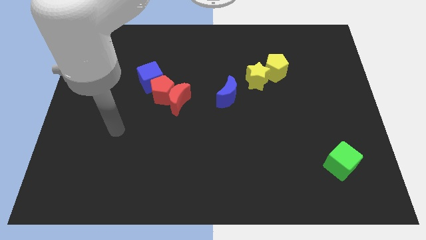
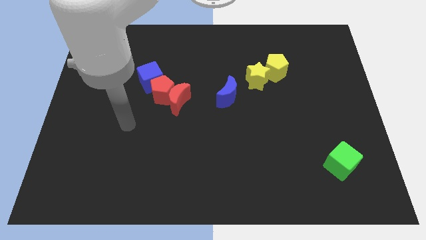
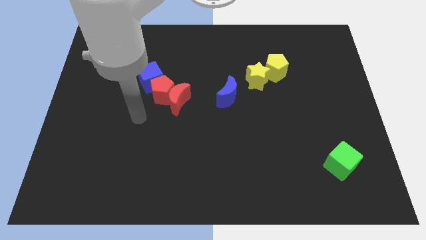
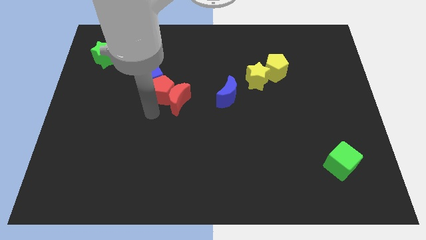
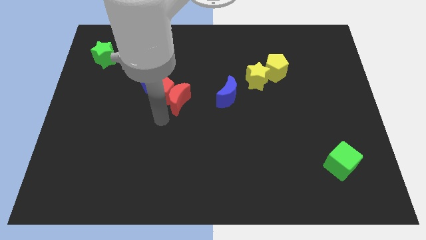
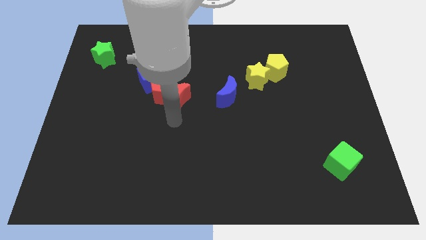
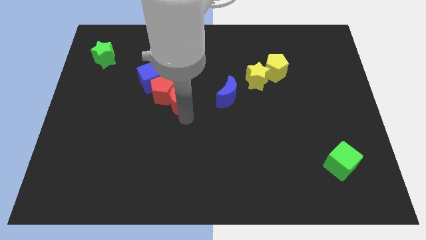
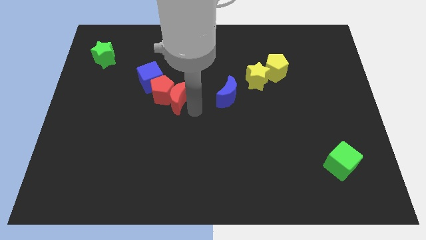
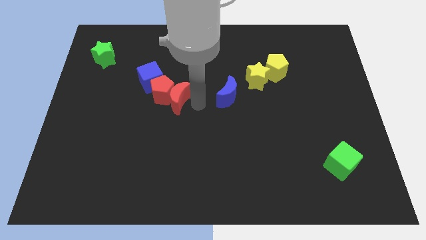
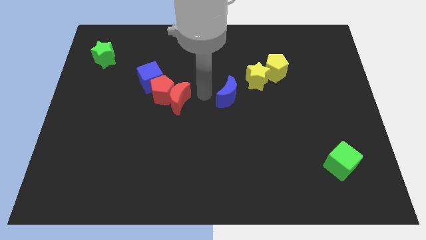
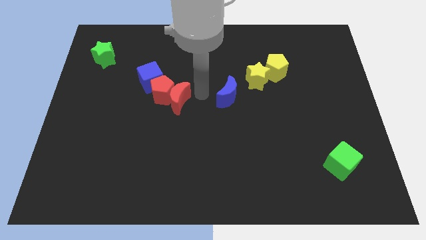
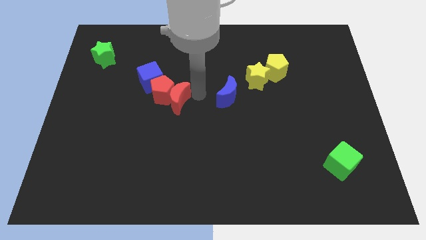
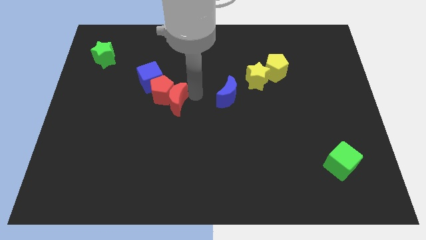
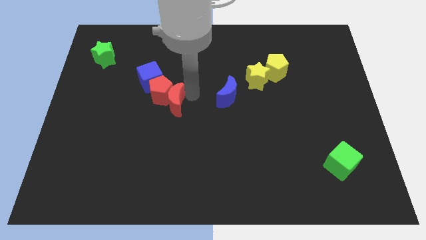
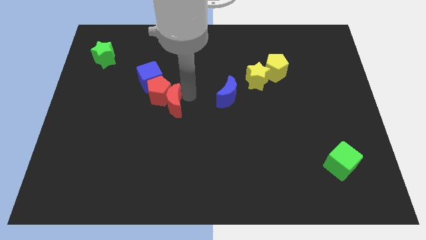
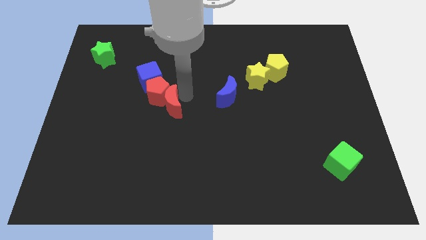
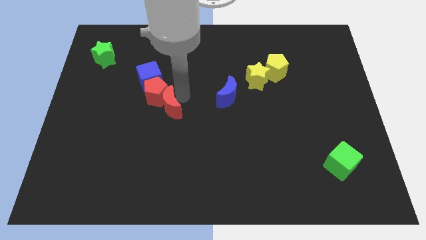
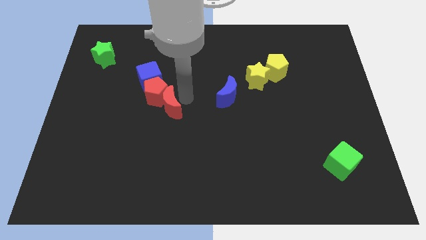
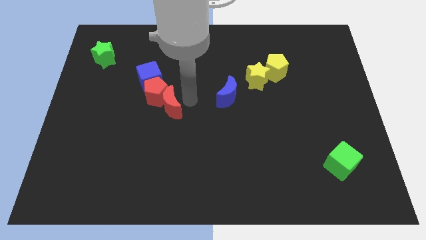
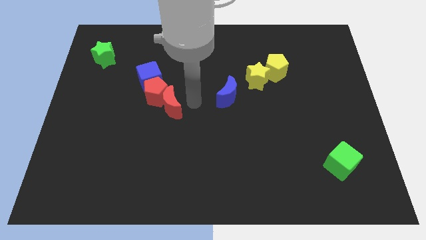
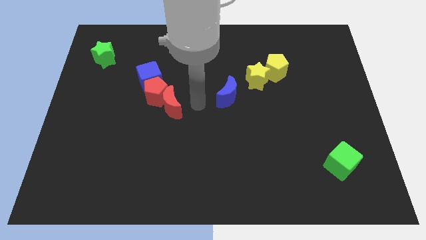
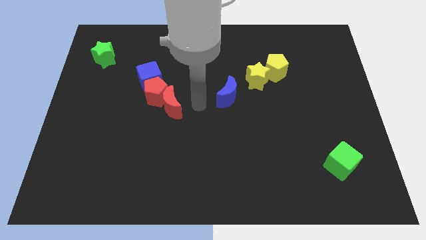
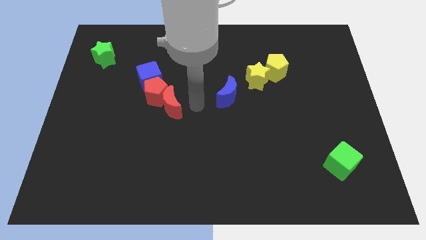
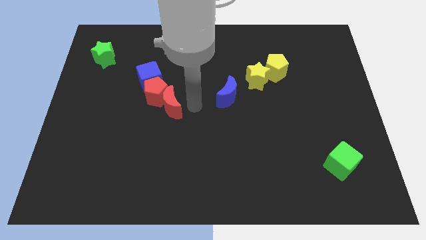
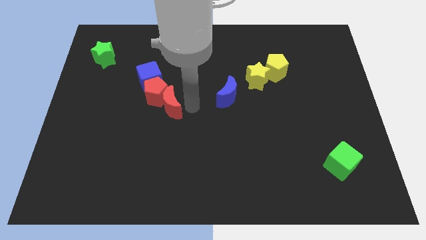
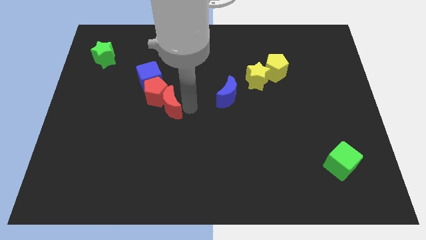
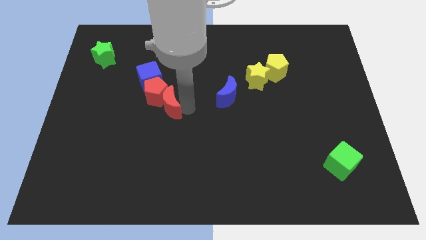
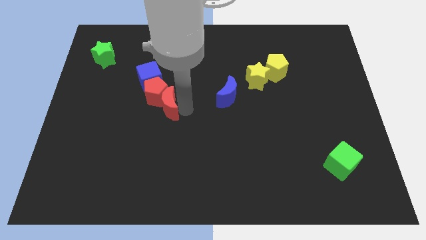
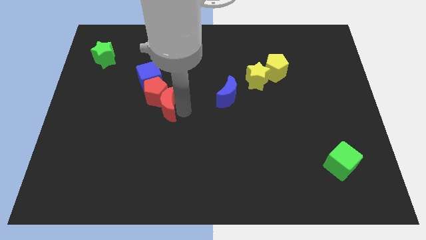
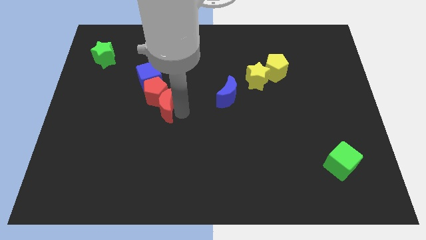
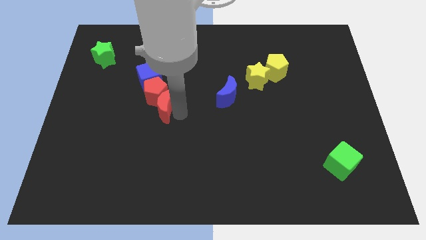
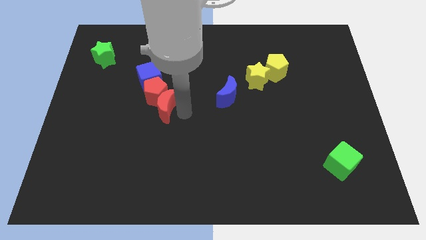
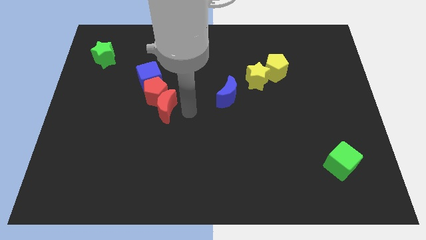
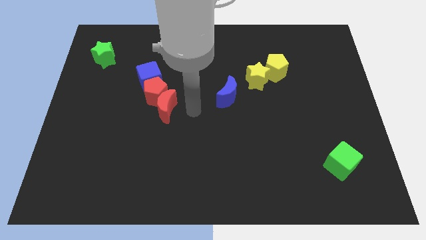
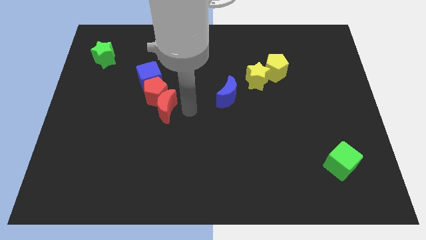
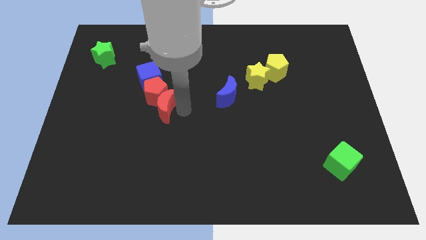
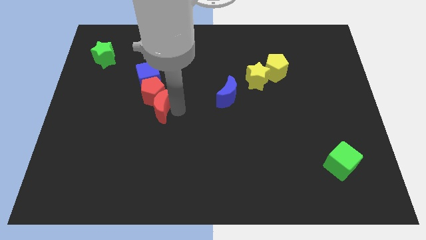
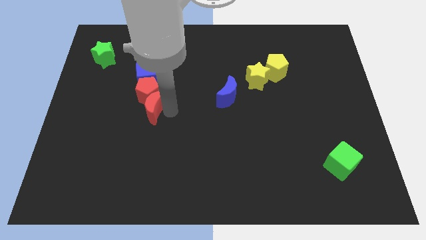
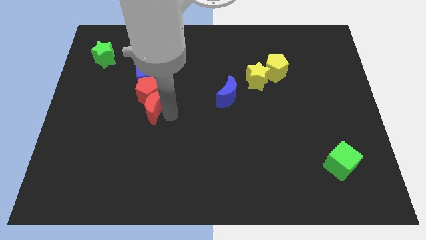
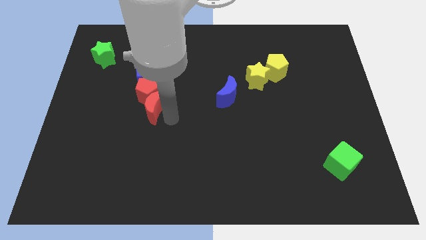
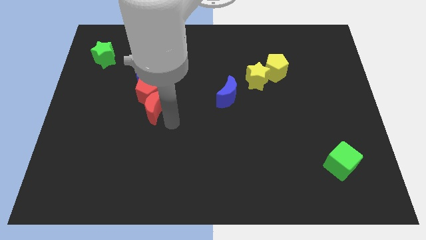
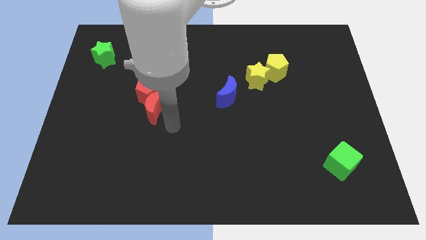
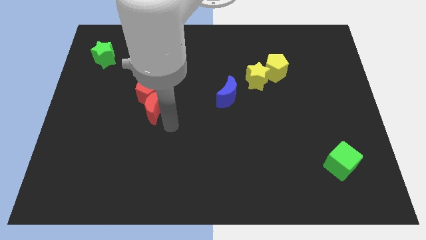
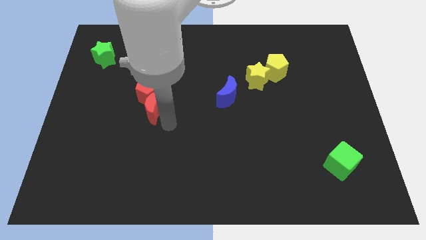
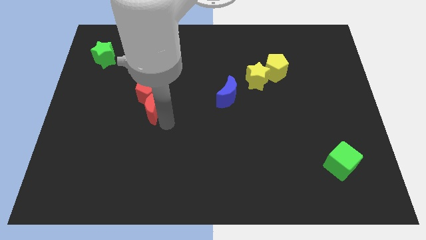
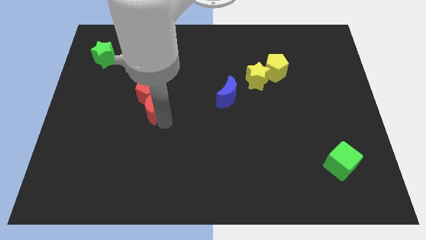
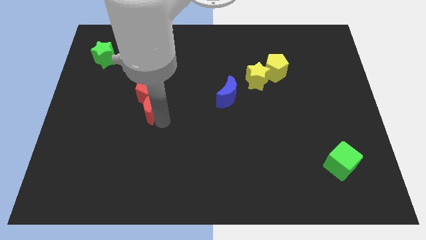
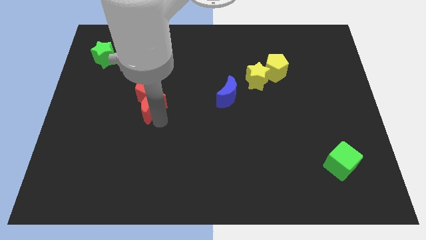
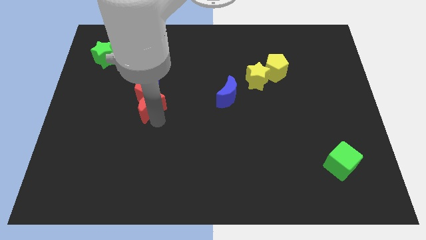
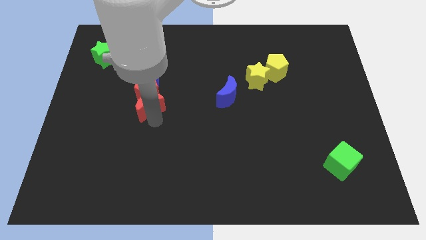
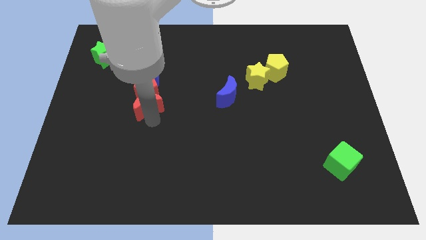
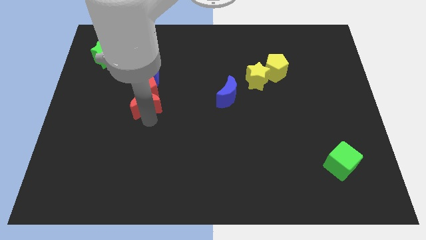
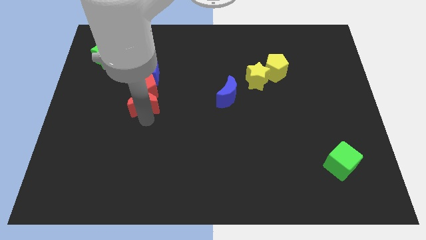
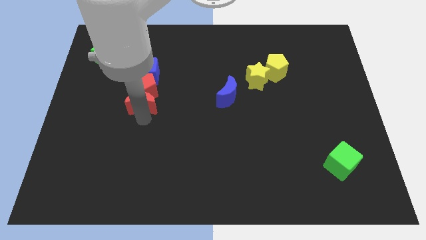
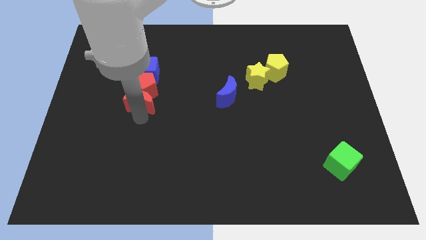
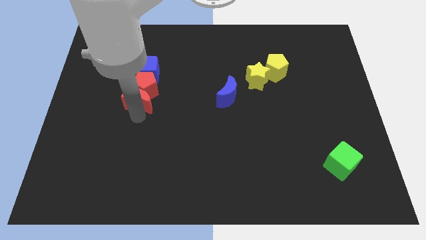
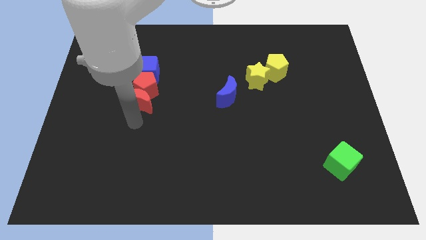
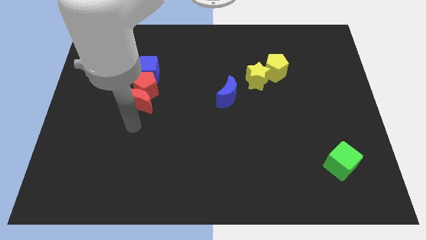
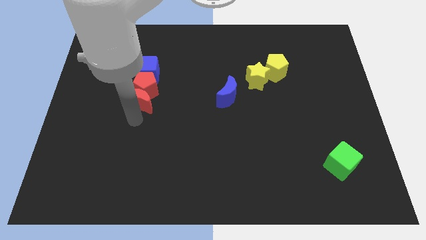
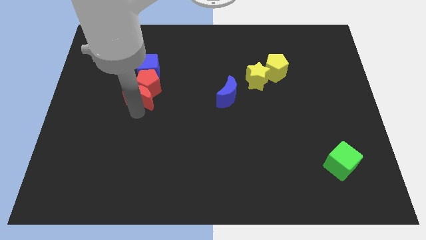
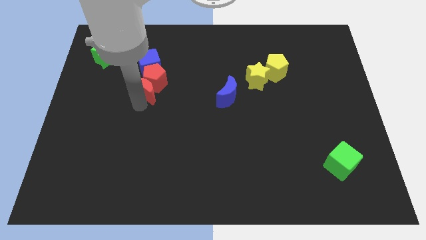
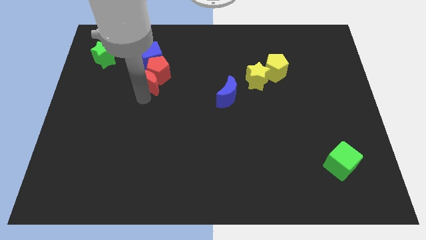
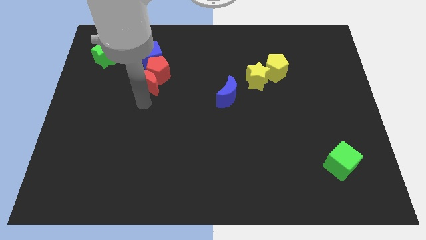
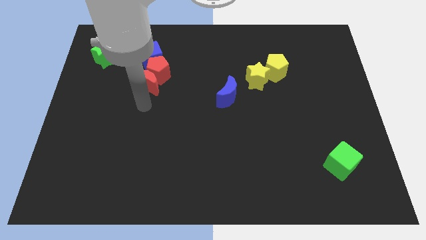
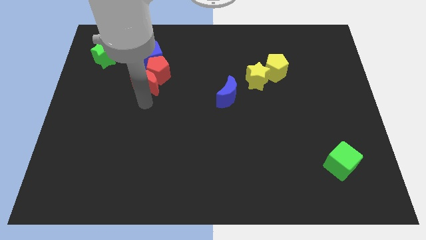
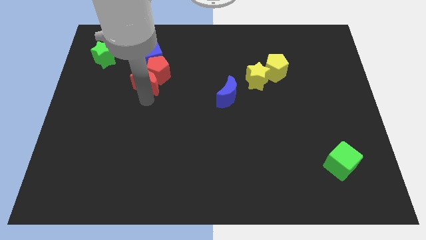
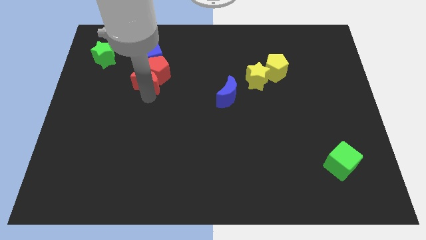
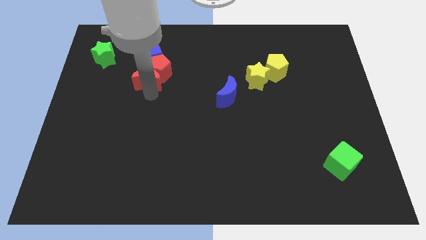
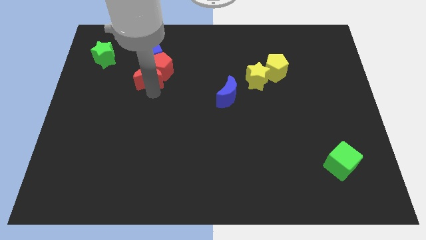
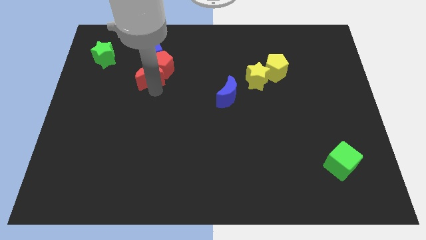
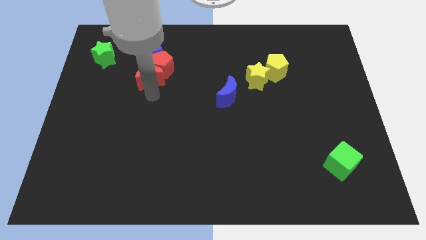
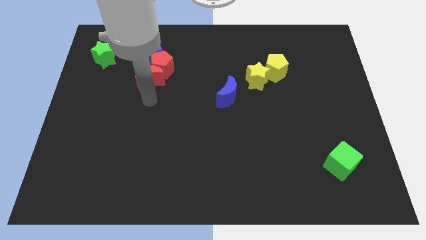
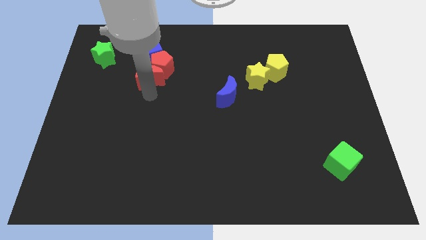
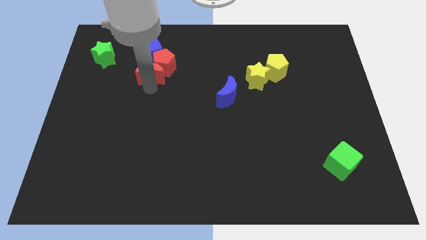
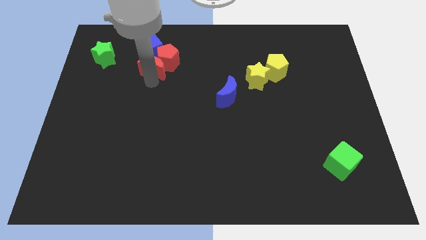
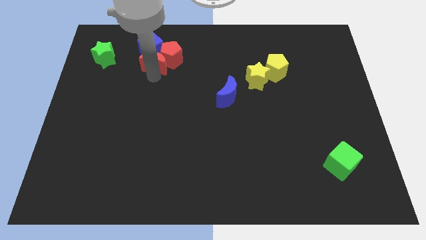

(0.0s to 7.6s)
slide the red moon next to the blue cube
